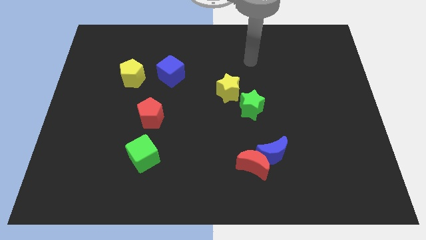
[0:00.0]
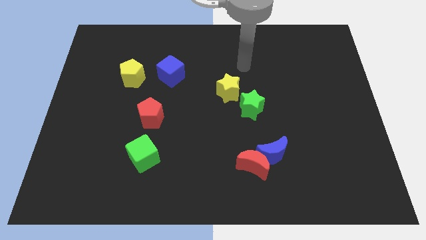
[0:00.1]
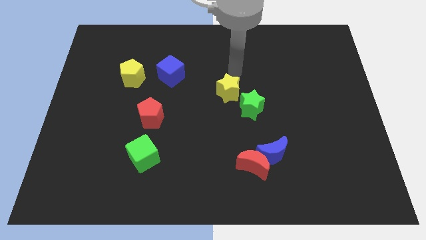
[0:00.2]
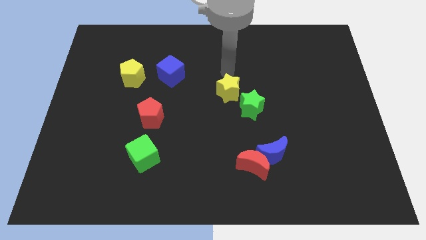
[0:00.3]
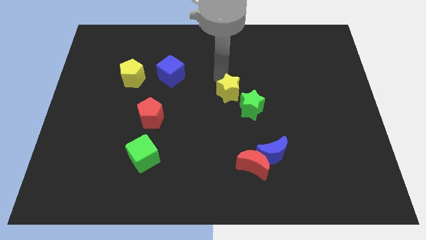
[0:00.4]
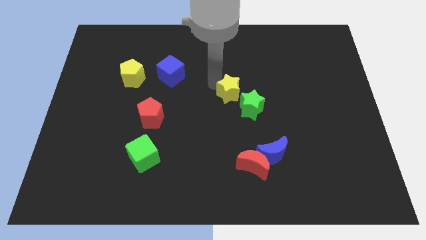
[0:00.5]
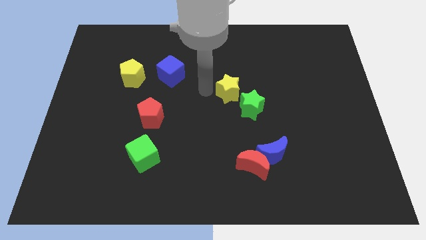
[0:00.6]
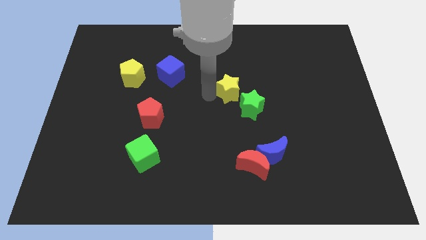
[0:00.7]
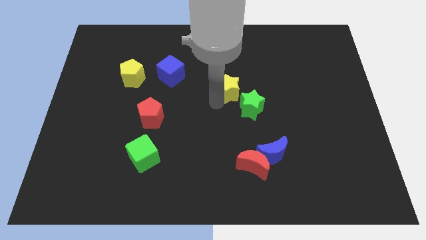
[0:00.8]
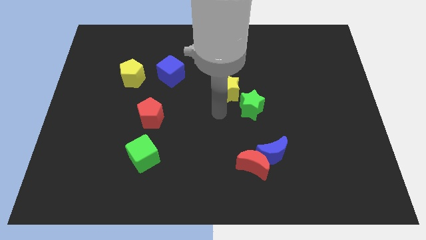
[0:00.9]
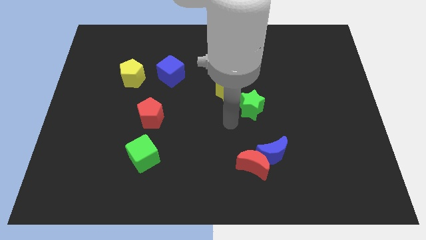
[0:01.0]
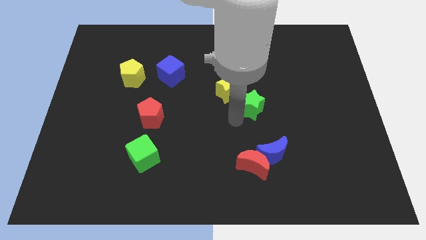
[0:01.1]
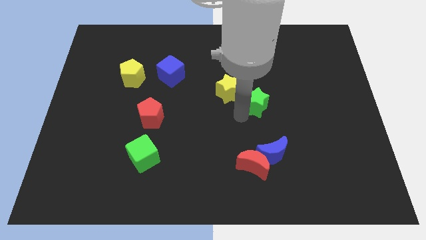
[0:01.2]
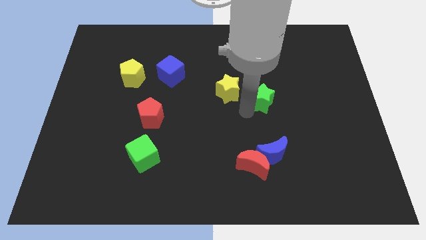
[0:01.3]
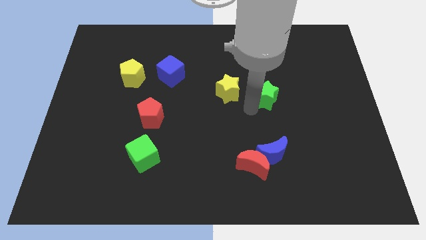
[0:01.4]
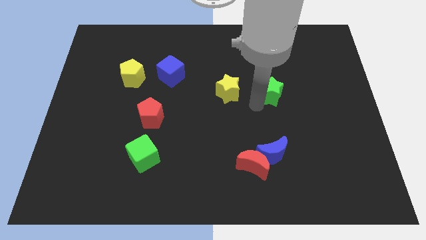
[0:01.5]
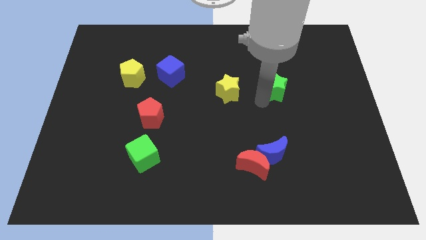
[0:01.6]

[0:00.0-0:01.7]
move the green star a little bit up and then to the right

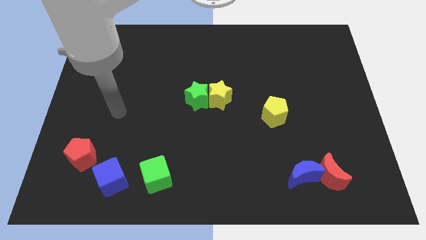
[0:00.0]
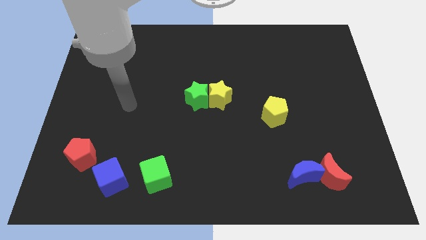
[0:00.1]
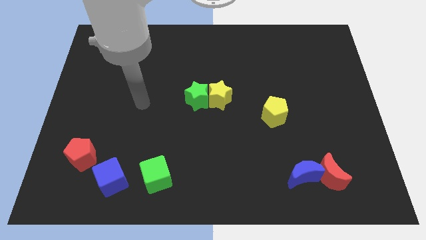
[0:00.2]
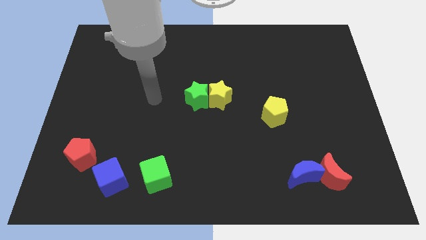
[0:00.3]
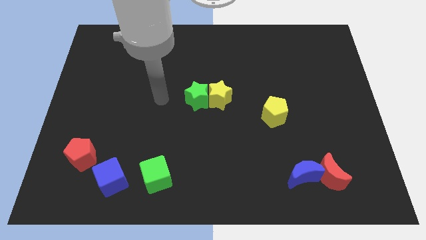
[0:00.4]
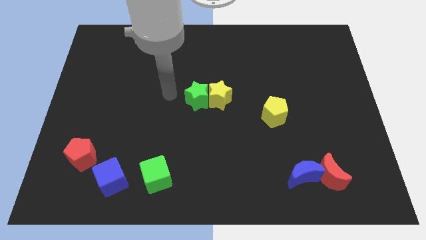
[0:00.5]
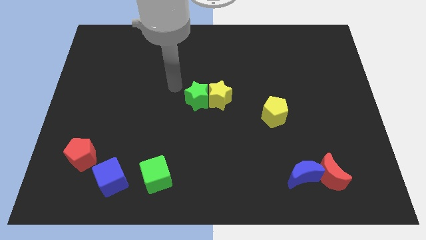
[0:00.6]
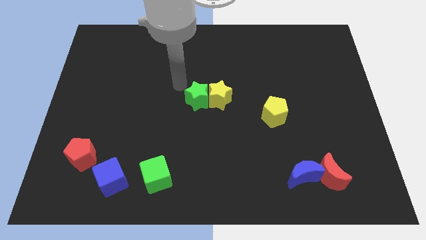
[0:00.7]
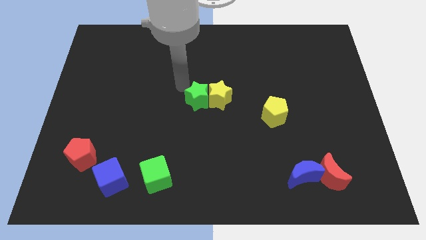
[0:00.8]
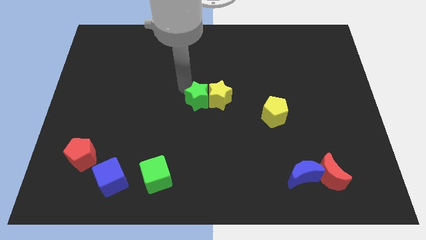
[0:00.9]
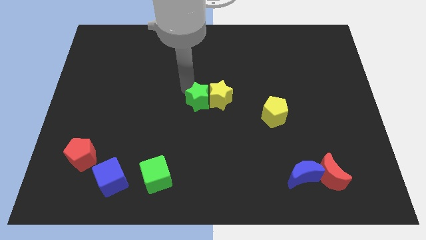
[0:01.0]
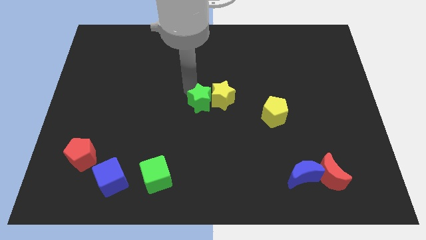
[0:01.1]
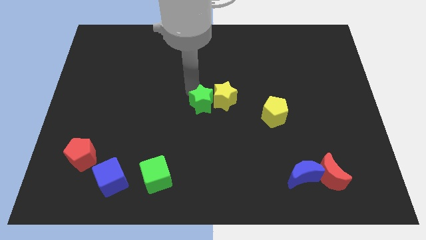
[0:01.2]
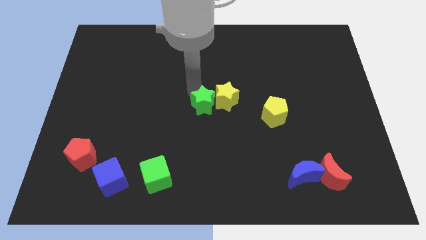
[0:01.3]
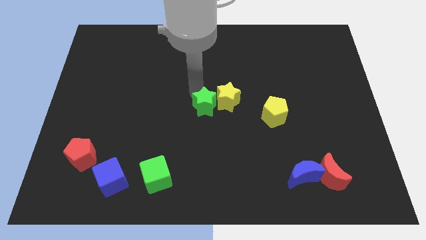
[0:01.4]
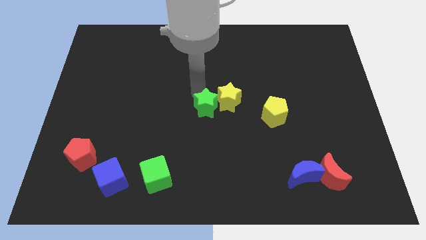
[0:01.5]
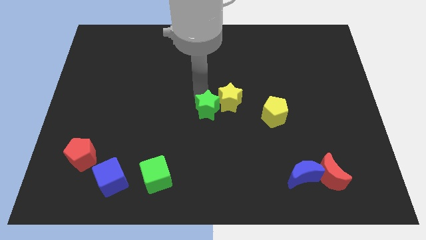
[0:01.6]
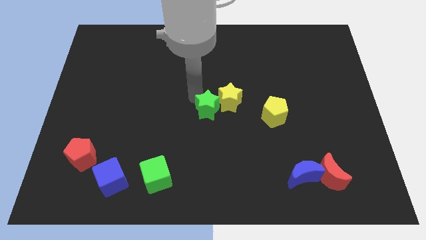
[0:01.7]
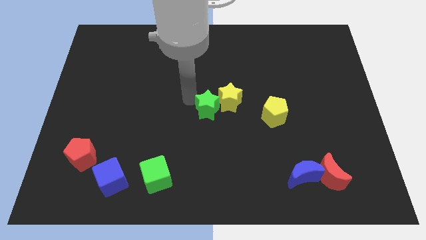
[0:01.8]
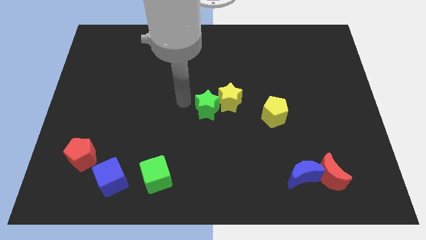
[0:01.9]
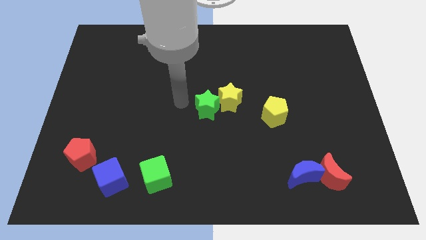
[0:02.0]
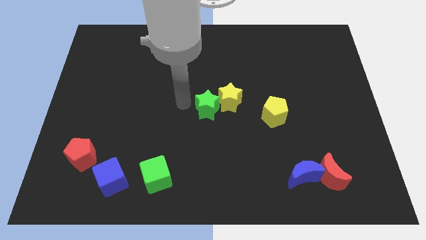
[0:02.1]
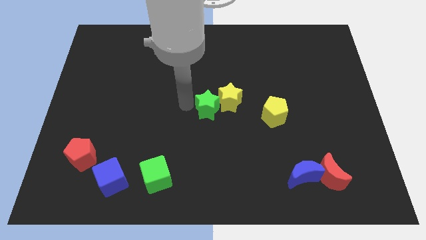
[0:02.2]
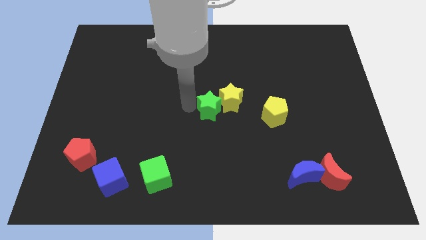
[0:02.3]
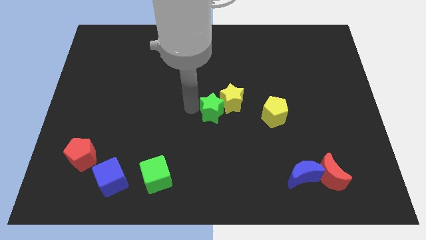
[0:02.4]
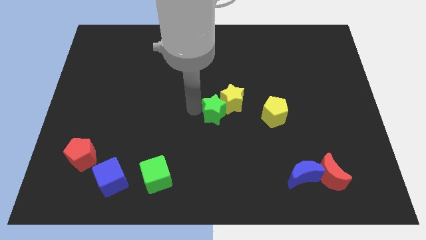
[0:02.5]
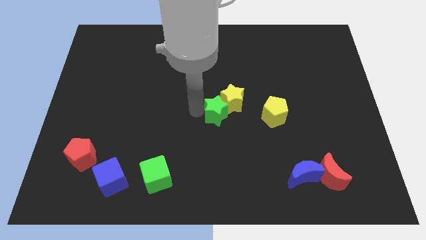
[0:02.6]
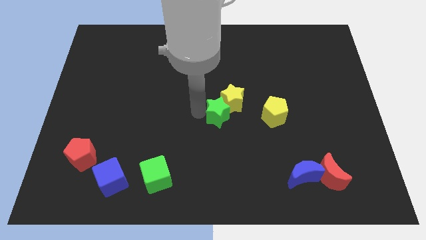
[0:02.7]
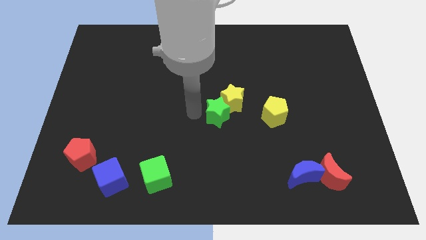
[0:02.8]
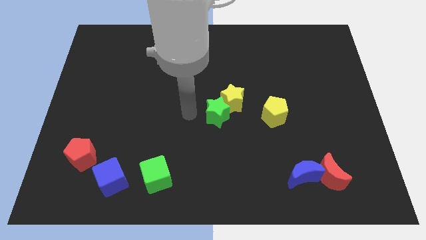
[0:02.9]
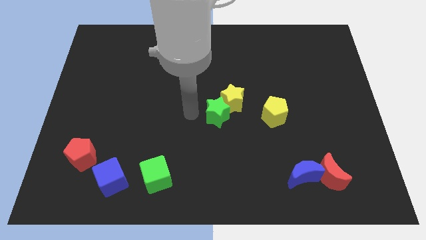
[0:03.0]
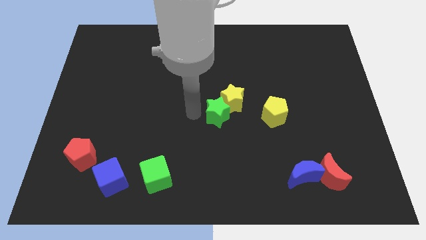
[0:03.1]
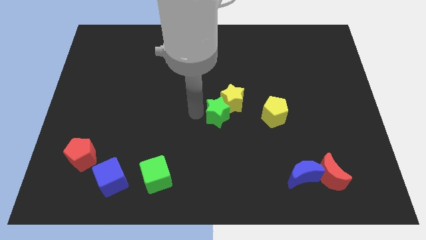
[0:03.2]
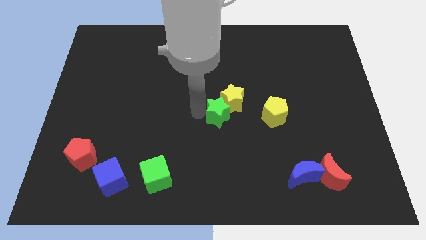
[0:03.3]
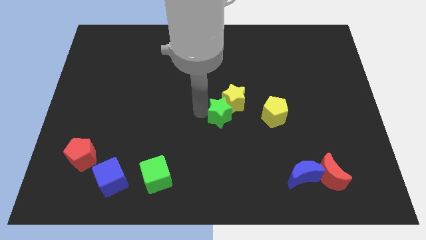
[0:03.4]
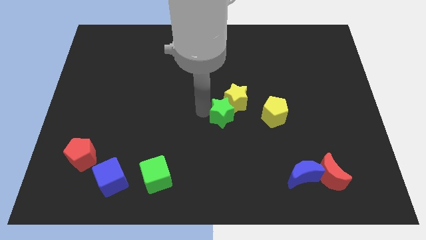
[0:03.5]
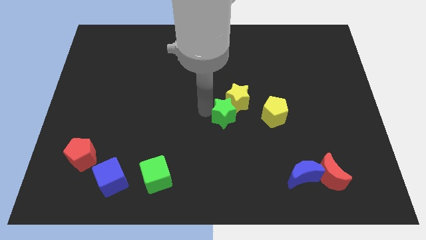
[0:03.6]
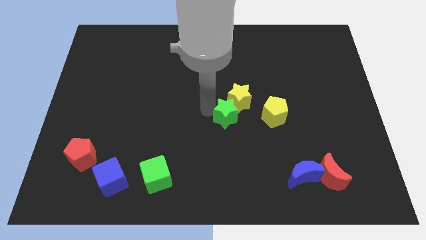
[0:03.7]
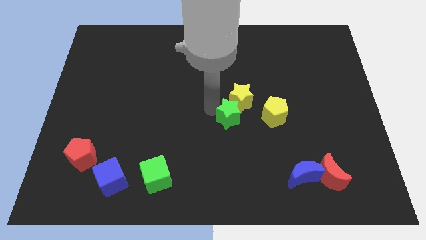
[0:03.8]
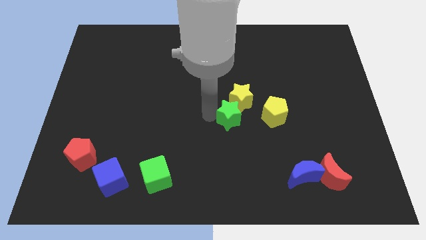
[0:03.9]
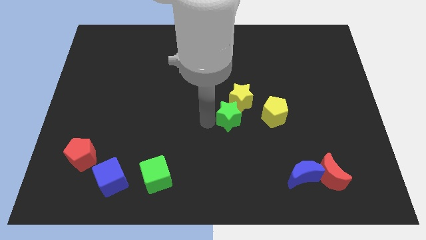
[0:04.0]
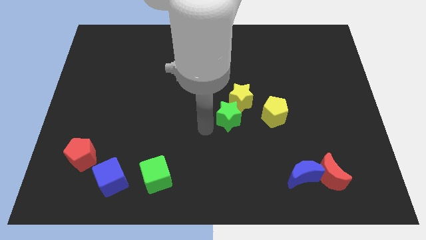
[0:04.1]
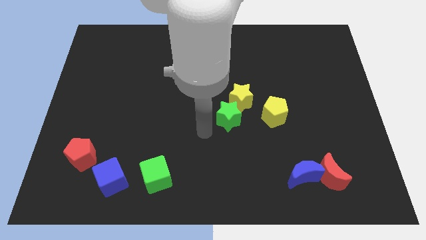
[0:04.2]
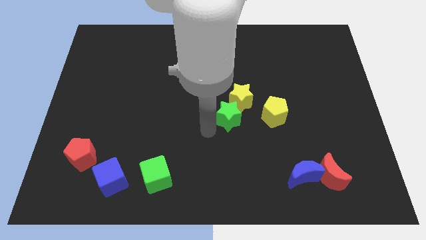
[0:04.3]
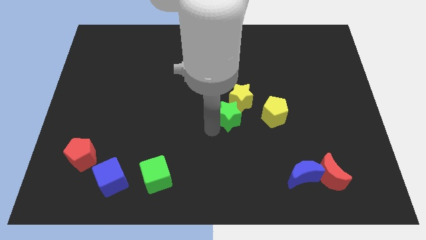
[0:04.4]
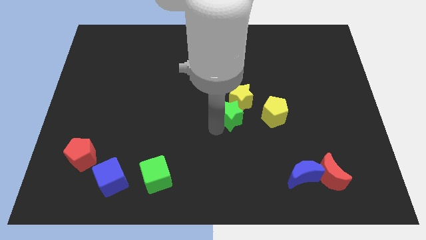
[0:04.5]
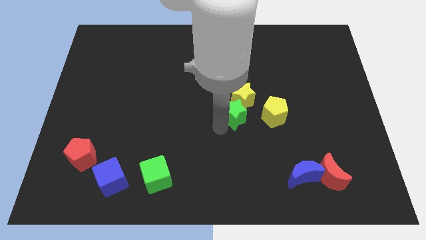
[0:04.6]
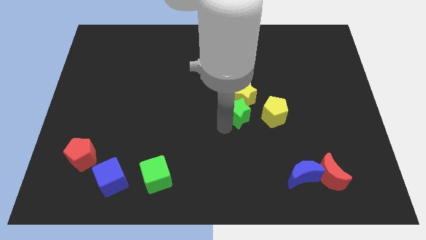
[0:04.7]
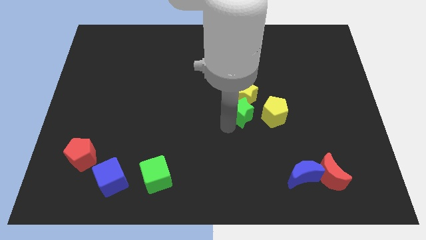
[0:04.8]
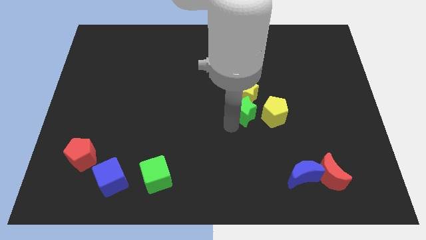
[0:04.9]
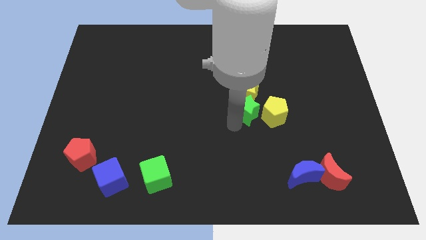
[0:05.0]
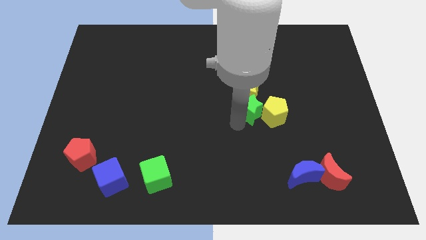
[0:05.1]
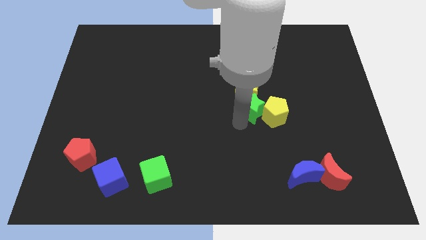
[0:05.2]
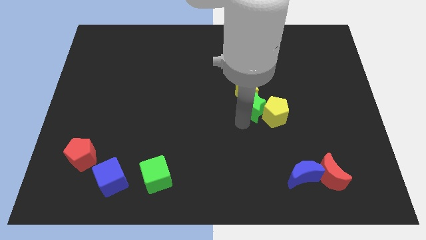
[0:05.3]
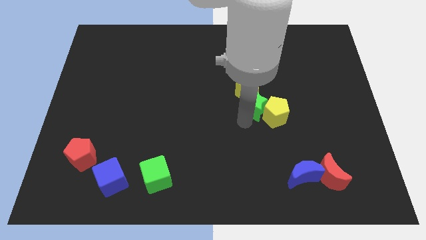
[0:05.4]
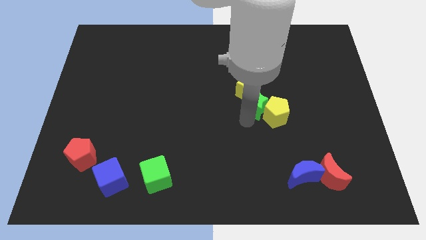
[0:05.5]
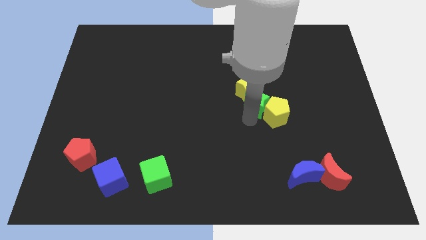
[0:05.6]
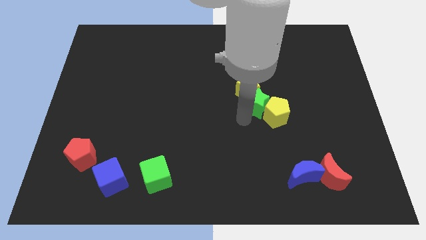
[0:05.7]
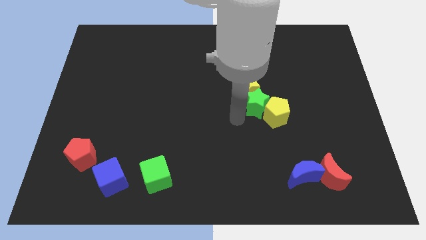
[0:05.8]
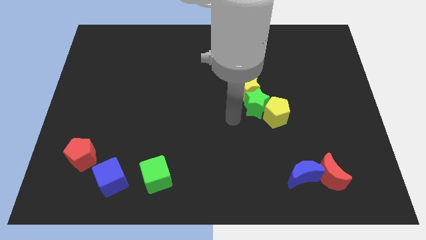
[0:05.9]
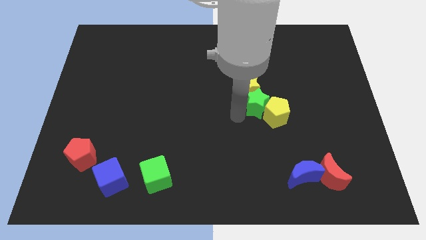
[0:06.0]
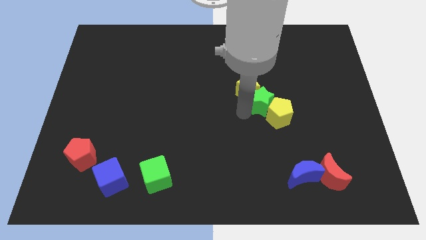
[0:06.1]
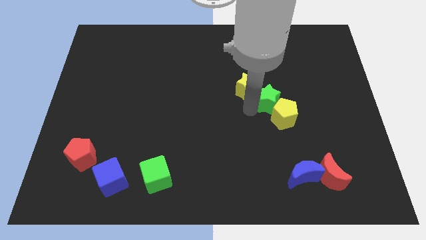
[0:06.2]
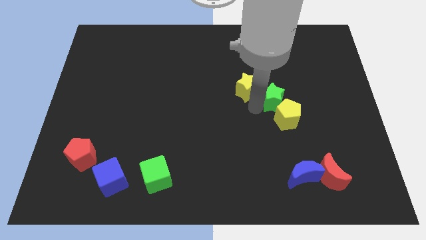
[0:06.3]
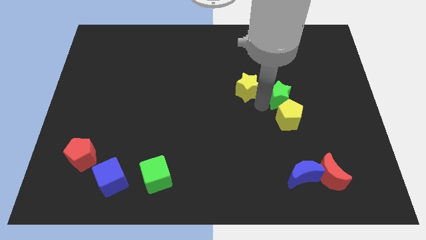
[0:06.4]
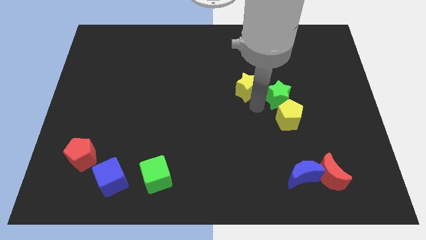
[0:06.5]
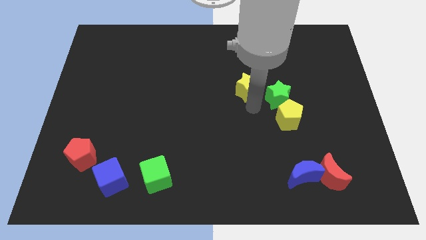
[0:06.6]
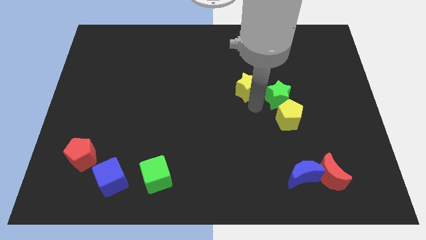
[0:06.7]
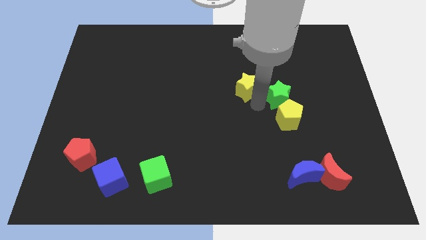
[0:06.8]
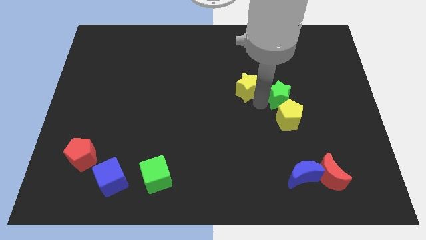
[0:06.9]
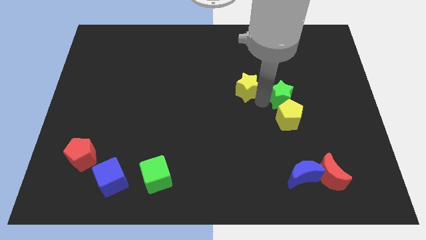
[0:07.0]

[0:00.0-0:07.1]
push the green star right
